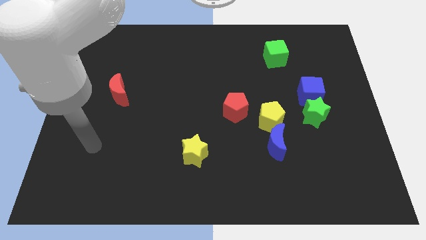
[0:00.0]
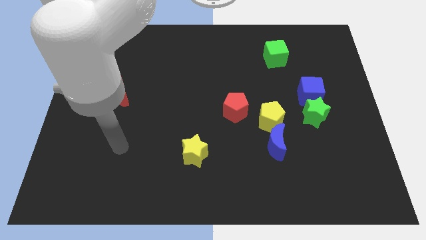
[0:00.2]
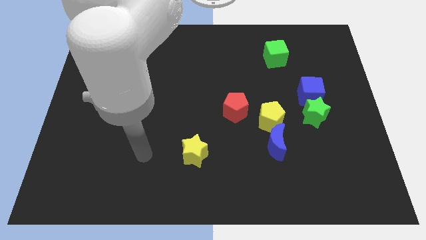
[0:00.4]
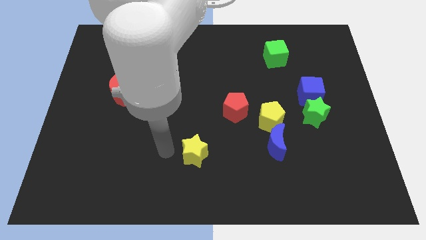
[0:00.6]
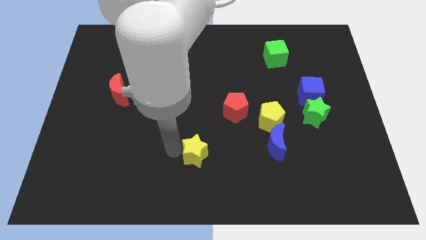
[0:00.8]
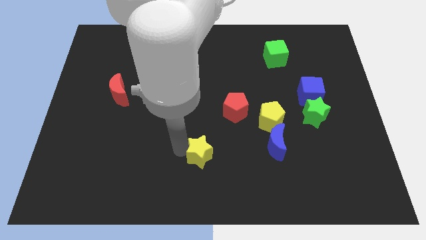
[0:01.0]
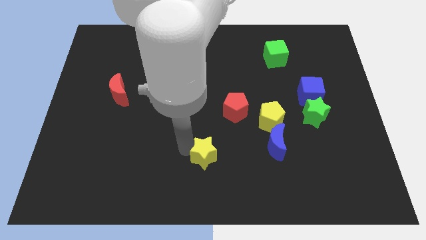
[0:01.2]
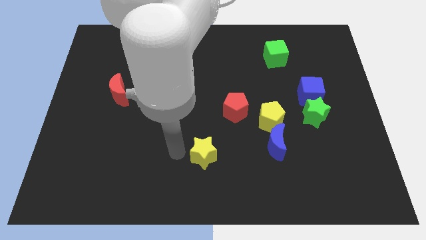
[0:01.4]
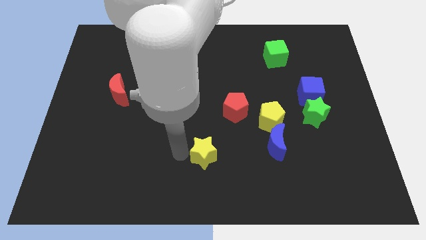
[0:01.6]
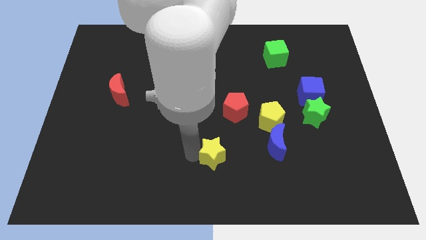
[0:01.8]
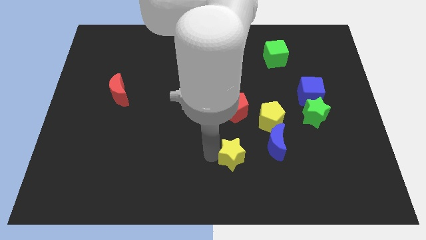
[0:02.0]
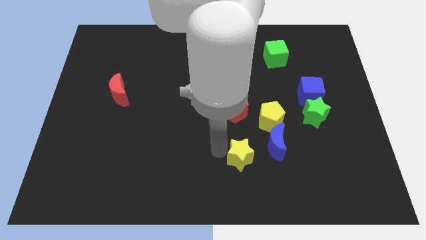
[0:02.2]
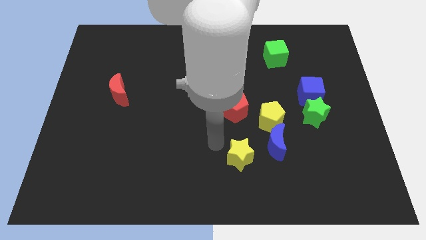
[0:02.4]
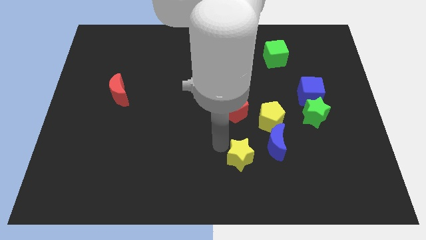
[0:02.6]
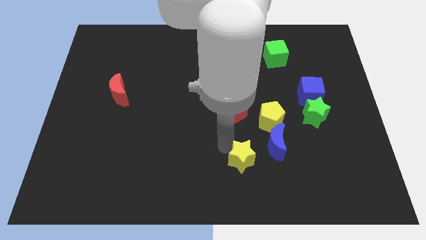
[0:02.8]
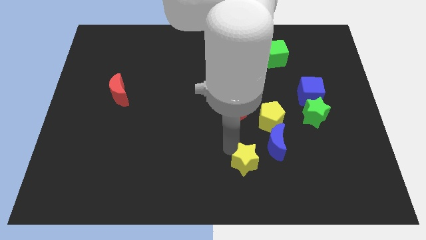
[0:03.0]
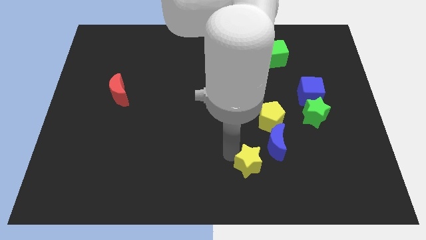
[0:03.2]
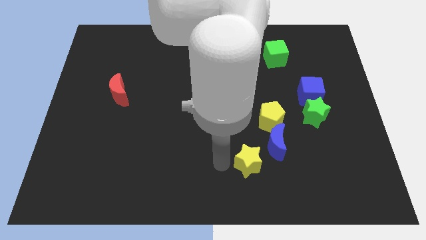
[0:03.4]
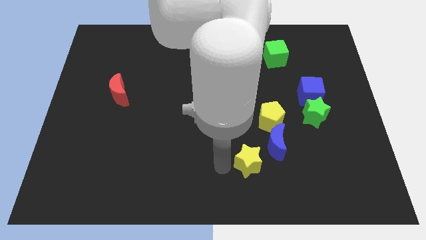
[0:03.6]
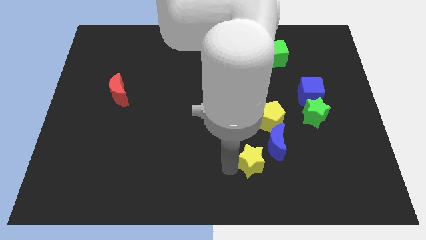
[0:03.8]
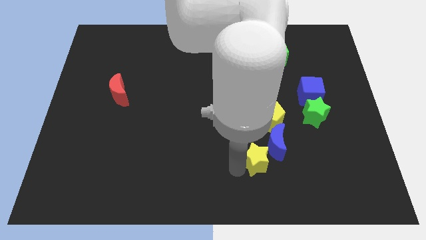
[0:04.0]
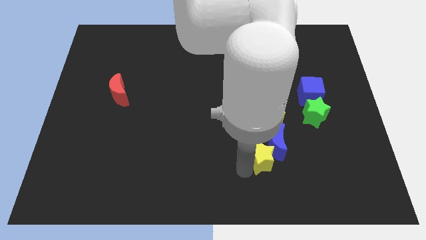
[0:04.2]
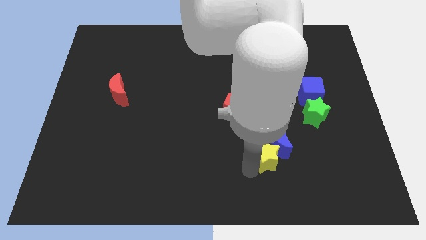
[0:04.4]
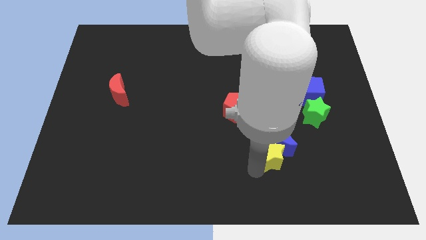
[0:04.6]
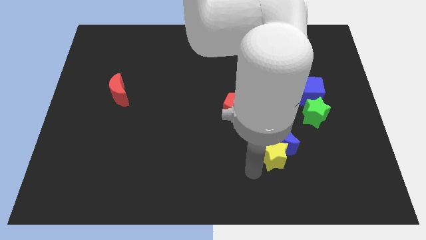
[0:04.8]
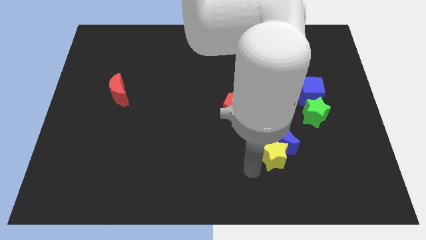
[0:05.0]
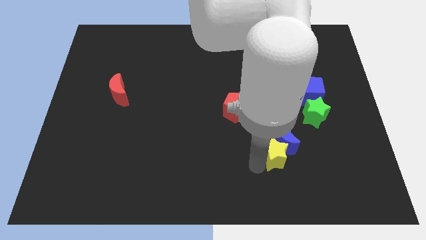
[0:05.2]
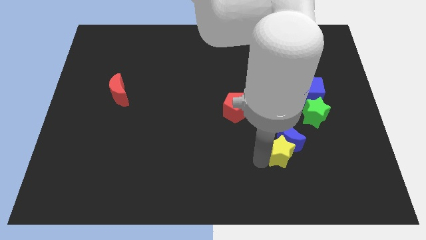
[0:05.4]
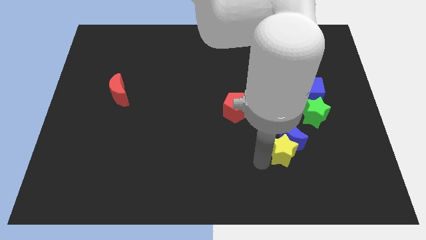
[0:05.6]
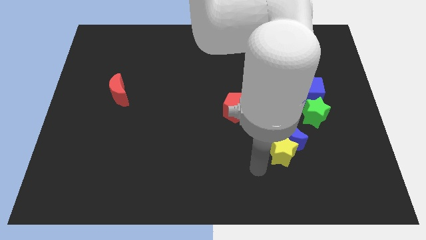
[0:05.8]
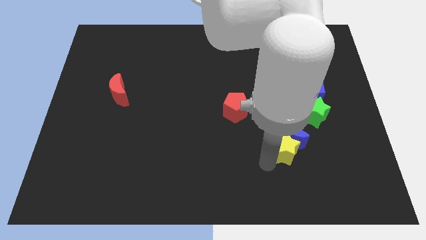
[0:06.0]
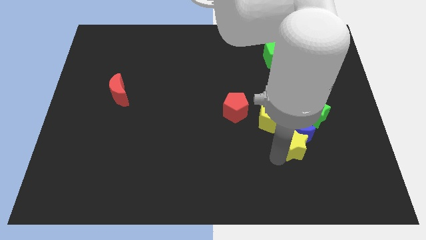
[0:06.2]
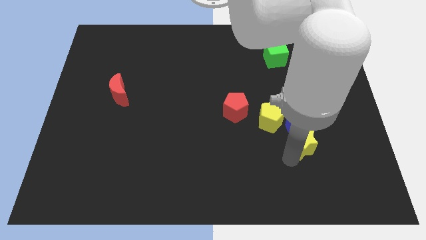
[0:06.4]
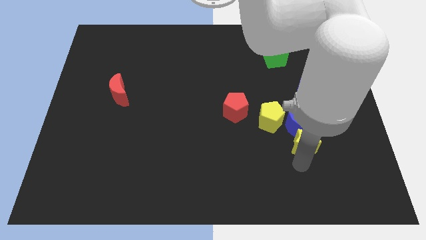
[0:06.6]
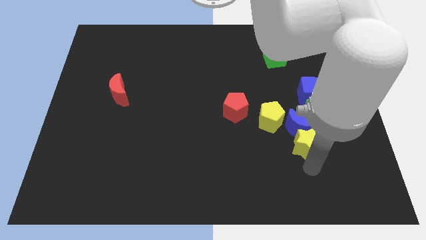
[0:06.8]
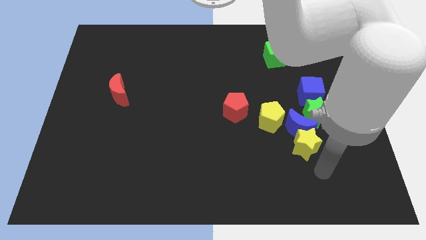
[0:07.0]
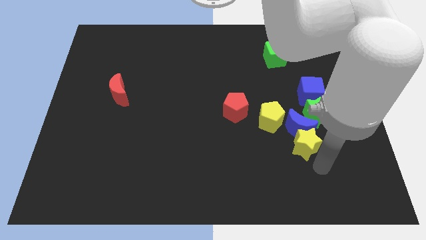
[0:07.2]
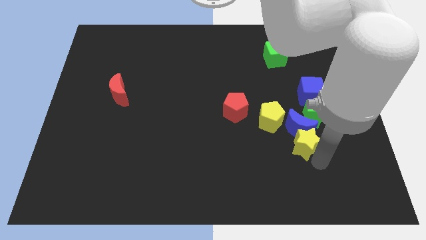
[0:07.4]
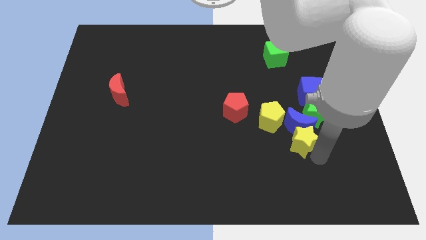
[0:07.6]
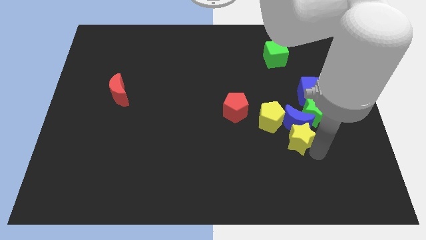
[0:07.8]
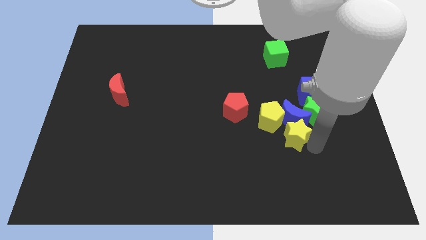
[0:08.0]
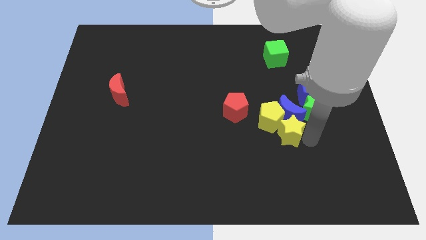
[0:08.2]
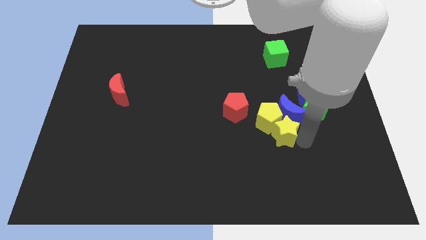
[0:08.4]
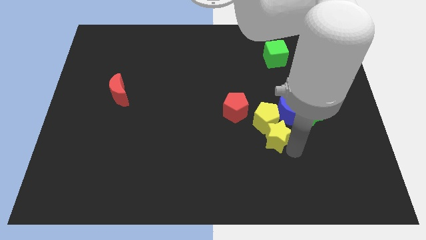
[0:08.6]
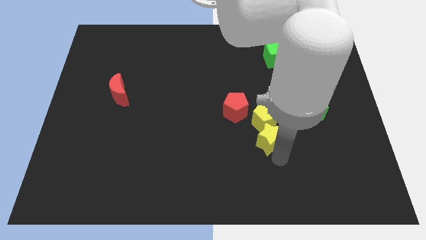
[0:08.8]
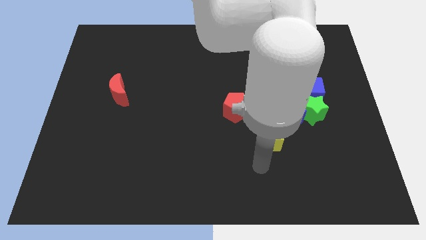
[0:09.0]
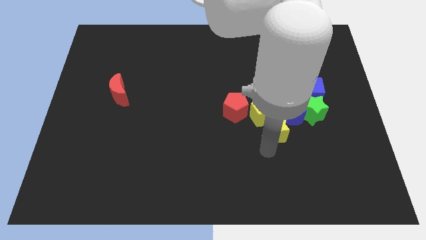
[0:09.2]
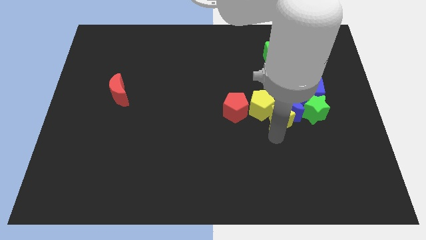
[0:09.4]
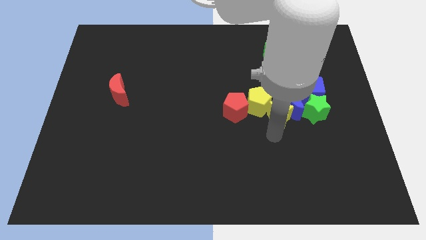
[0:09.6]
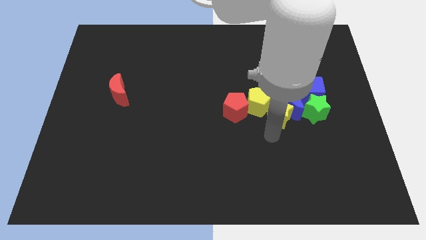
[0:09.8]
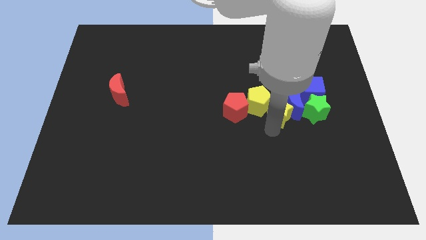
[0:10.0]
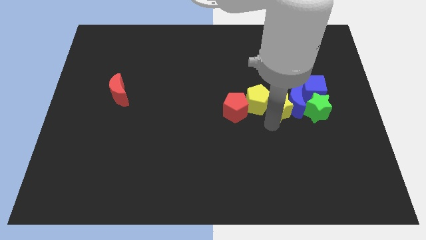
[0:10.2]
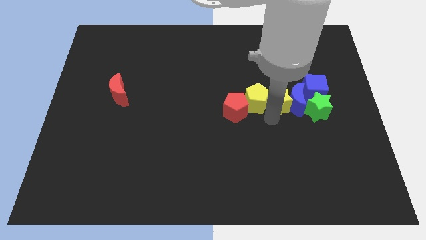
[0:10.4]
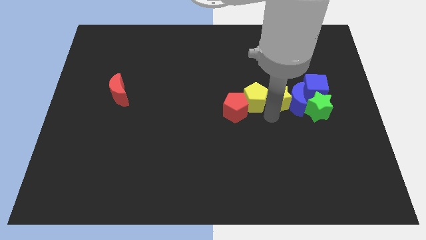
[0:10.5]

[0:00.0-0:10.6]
put the yellow star diagonally up and to the left of the green star

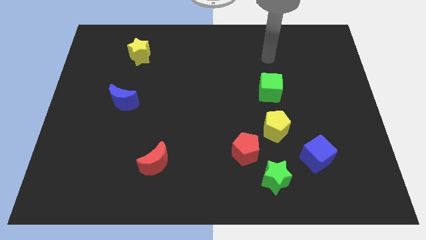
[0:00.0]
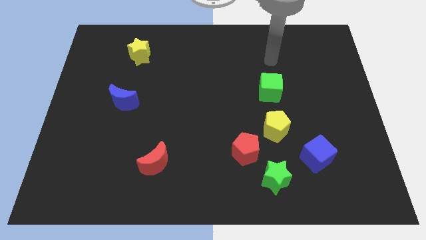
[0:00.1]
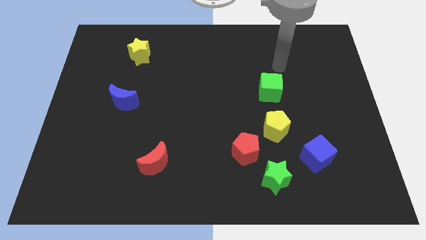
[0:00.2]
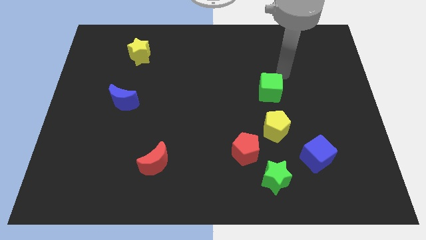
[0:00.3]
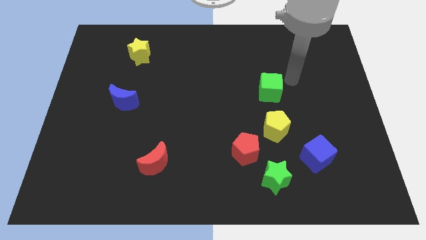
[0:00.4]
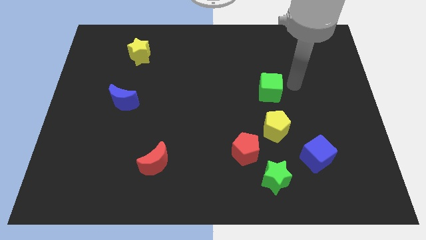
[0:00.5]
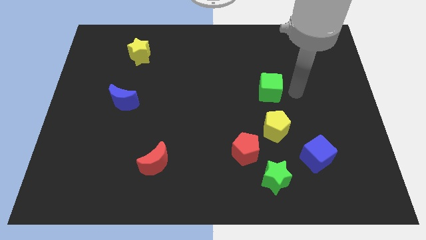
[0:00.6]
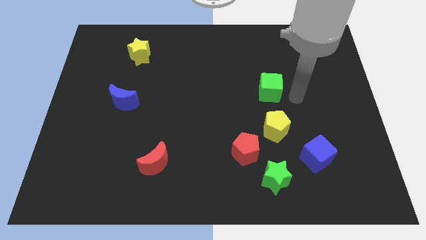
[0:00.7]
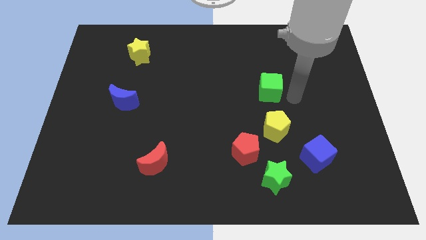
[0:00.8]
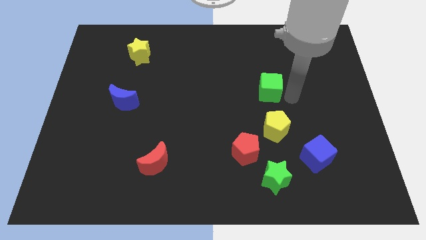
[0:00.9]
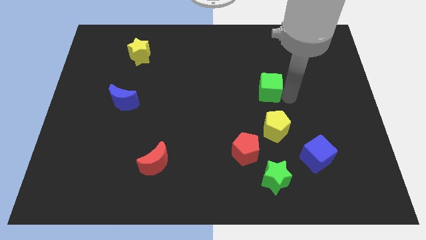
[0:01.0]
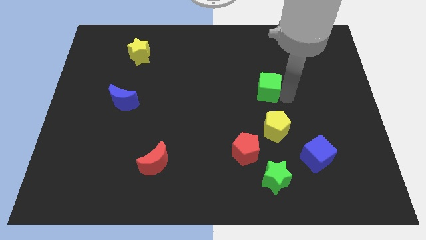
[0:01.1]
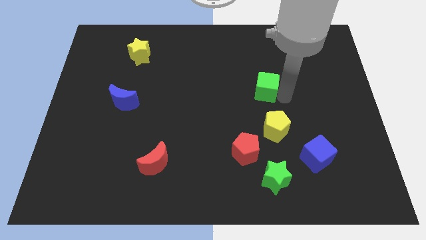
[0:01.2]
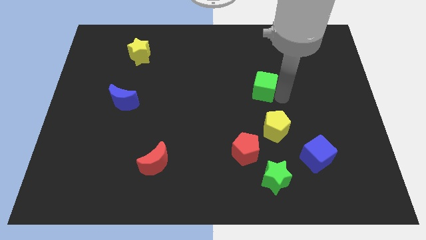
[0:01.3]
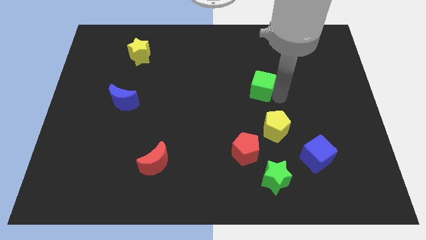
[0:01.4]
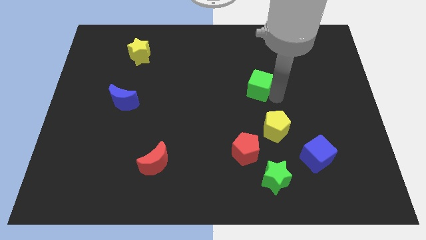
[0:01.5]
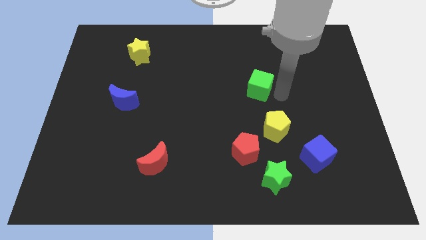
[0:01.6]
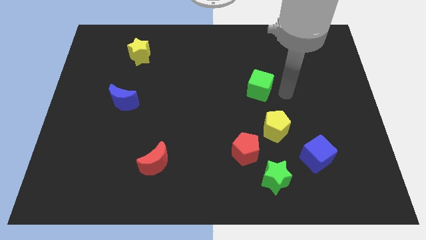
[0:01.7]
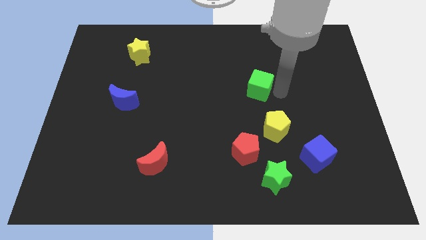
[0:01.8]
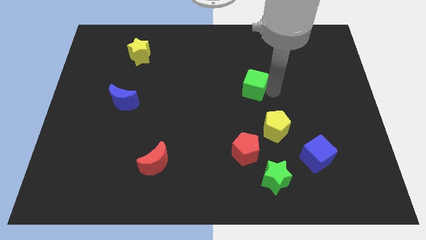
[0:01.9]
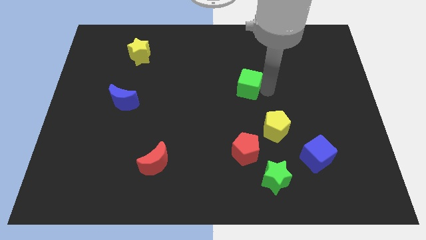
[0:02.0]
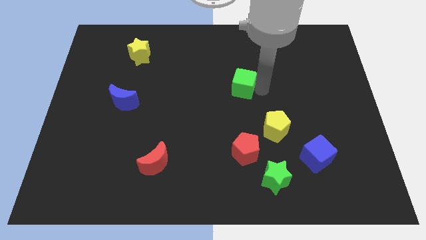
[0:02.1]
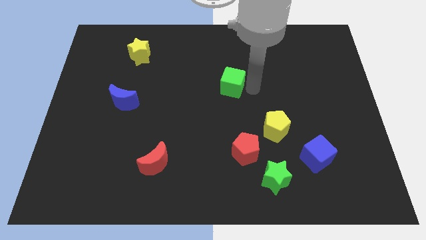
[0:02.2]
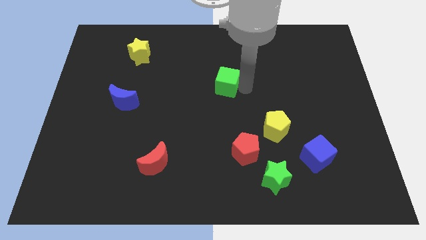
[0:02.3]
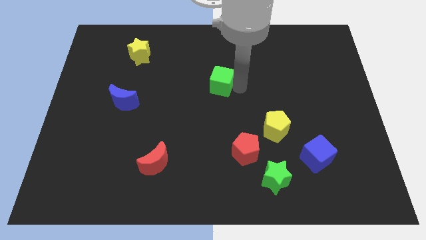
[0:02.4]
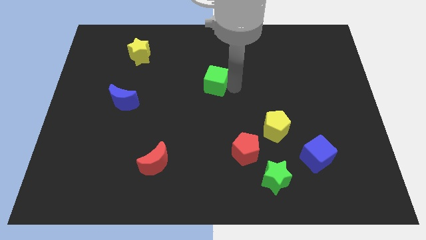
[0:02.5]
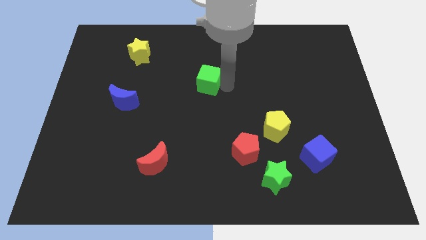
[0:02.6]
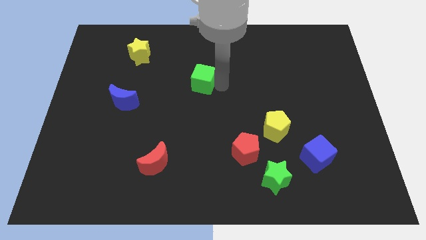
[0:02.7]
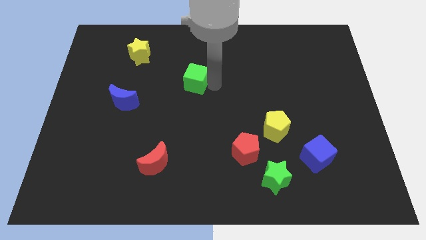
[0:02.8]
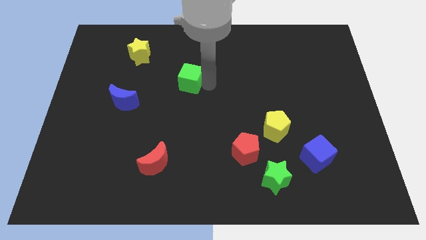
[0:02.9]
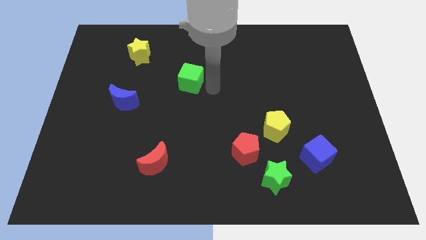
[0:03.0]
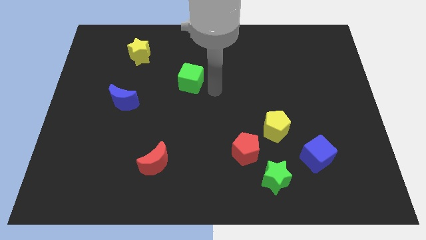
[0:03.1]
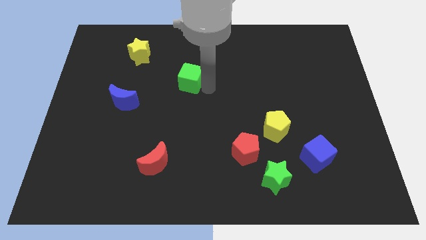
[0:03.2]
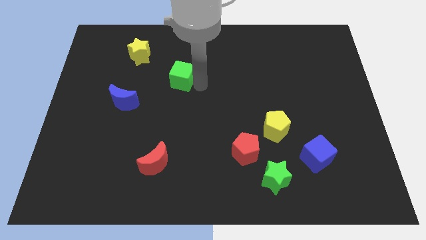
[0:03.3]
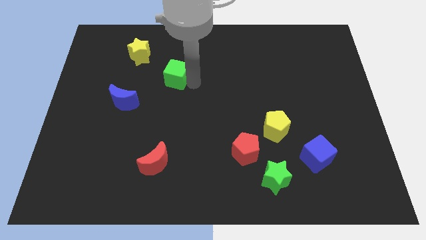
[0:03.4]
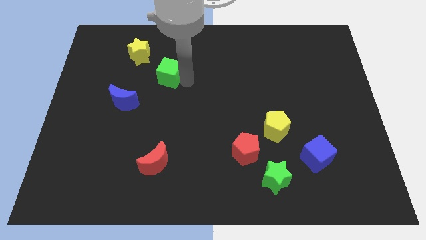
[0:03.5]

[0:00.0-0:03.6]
put the green cube to the bottom right of the yellow star
